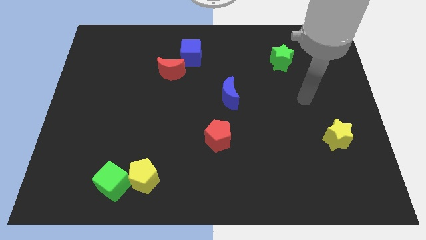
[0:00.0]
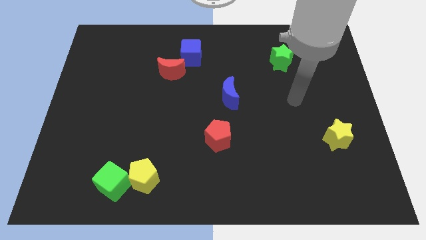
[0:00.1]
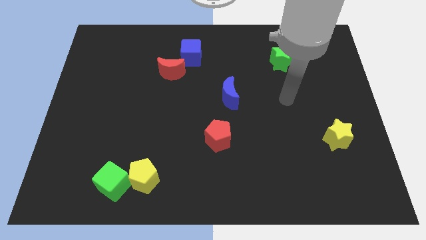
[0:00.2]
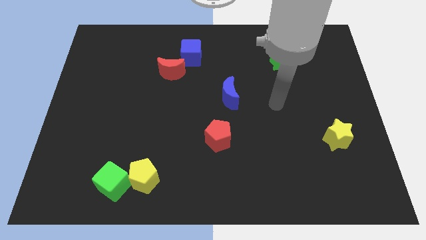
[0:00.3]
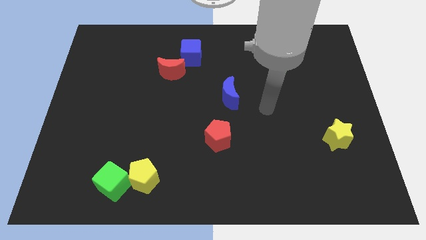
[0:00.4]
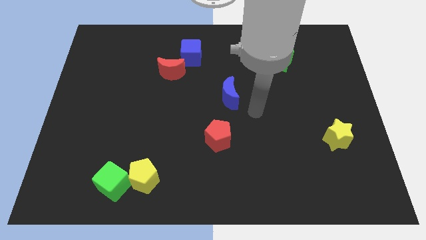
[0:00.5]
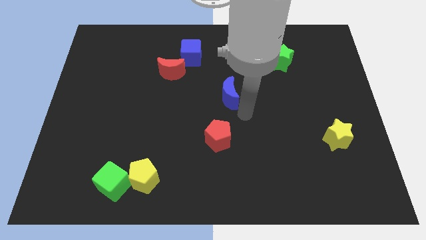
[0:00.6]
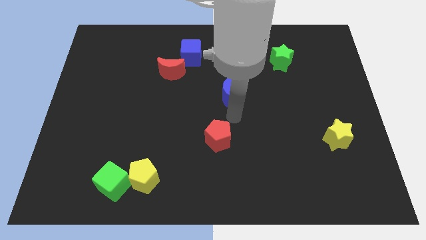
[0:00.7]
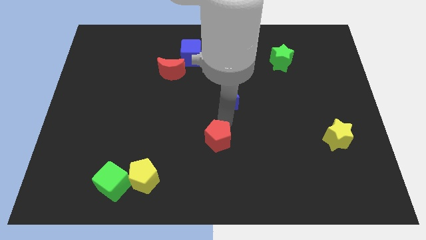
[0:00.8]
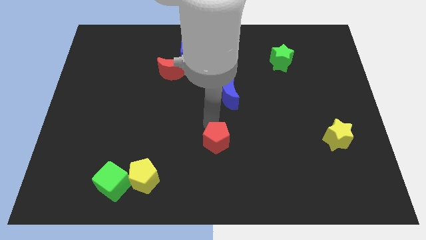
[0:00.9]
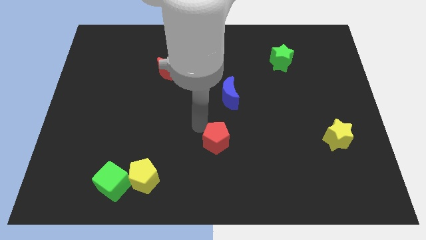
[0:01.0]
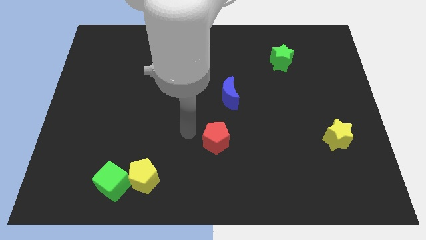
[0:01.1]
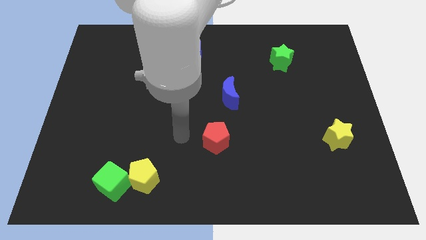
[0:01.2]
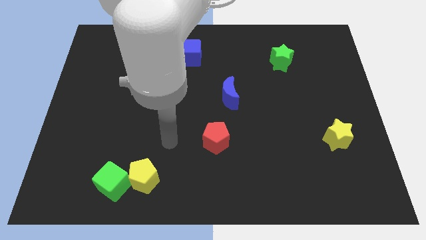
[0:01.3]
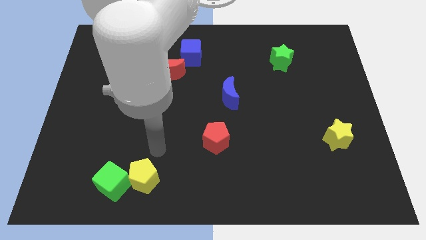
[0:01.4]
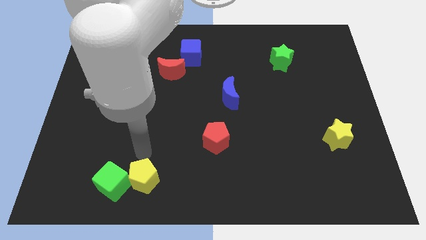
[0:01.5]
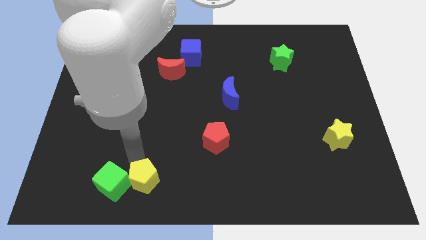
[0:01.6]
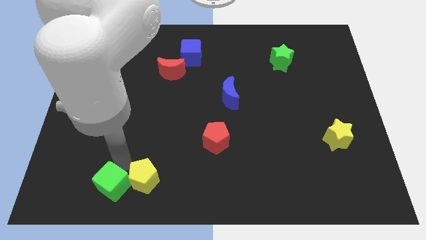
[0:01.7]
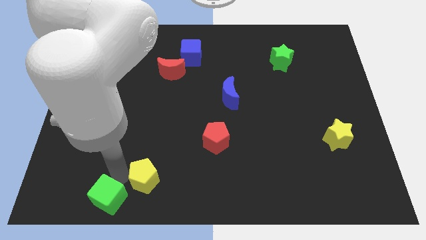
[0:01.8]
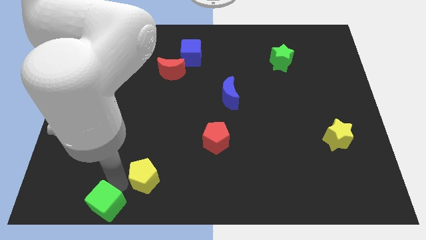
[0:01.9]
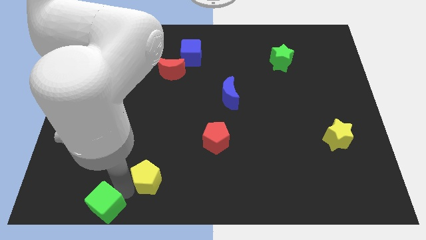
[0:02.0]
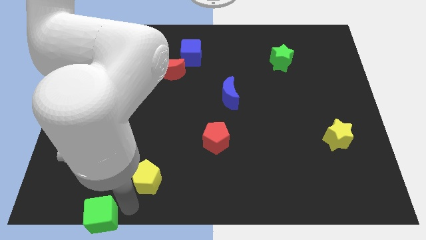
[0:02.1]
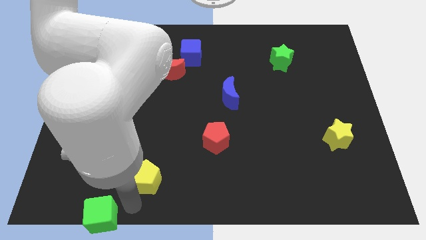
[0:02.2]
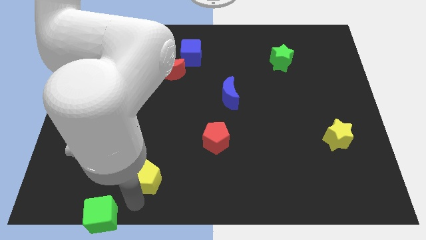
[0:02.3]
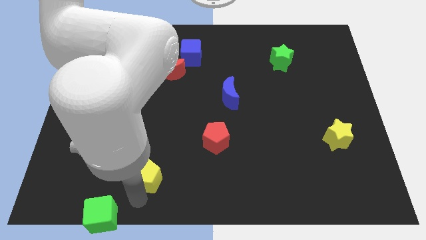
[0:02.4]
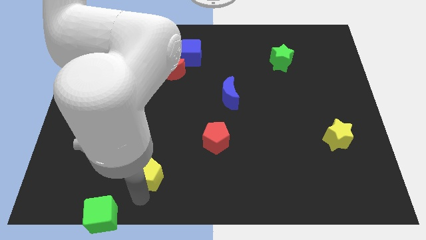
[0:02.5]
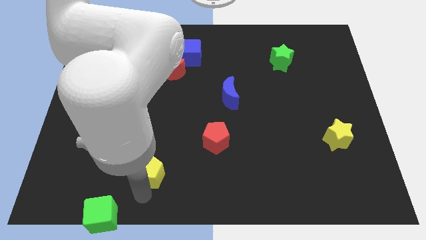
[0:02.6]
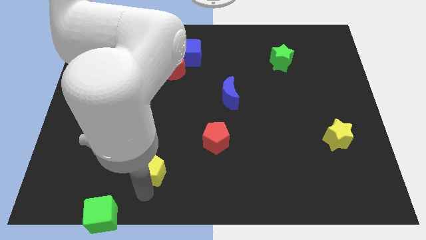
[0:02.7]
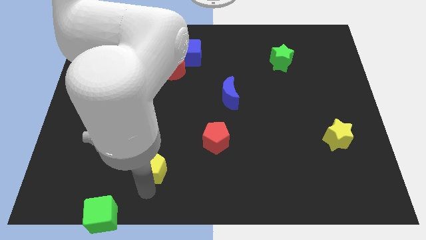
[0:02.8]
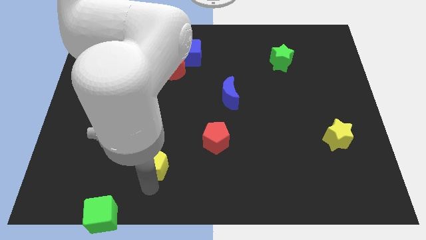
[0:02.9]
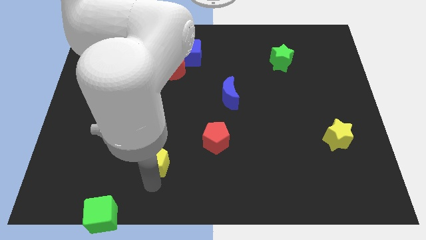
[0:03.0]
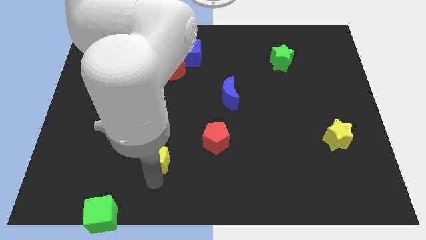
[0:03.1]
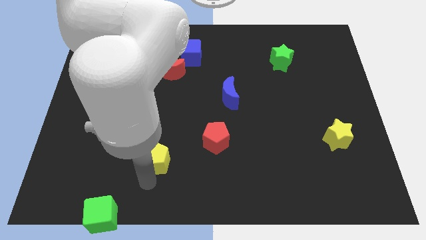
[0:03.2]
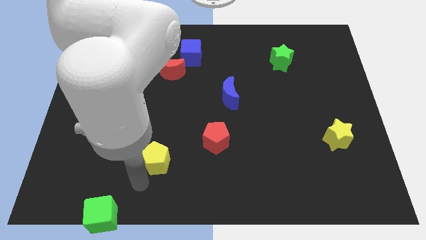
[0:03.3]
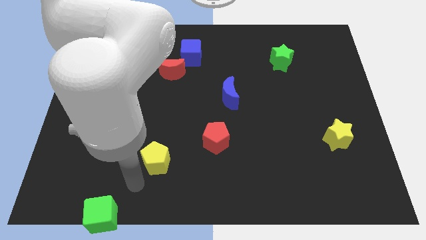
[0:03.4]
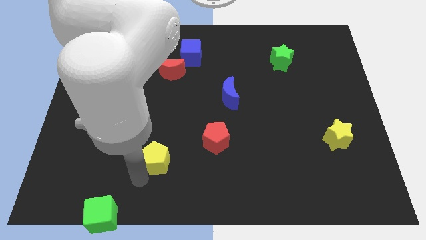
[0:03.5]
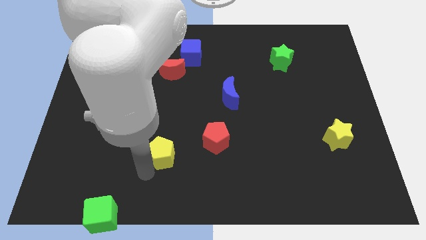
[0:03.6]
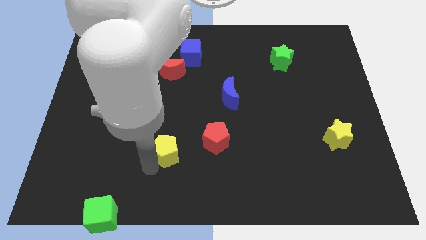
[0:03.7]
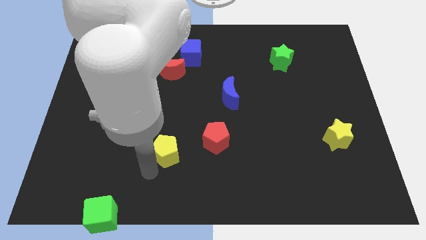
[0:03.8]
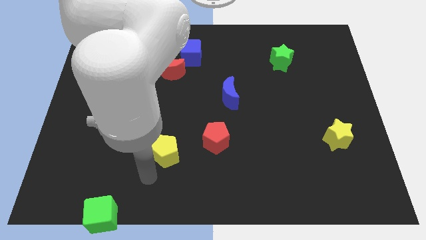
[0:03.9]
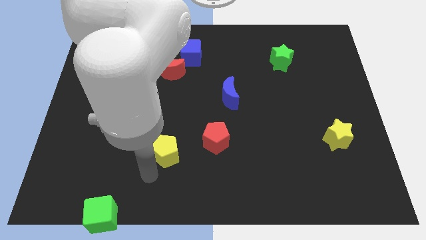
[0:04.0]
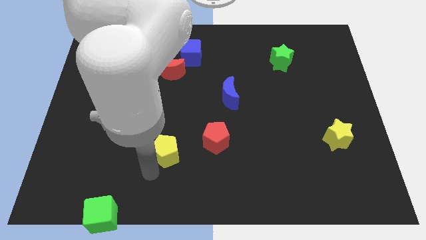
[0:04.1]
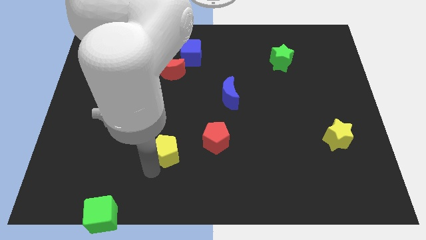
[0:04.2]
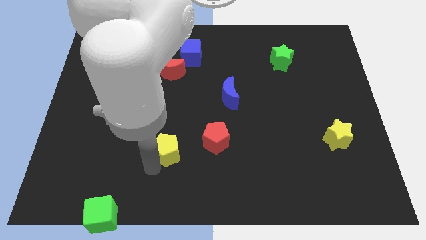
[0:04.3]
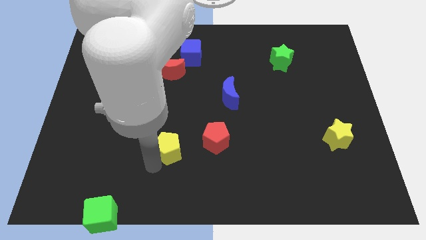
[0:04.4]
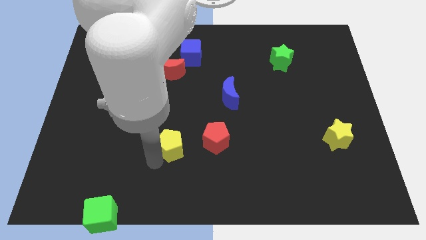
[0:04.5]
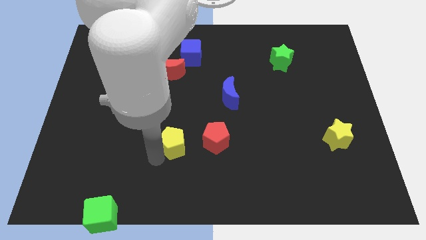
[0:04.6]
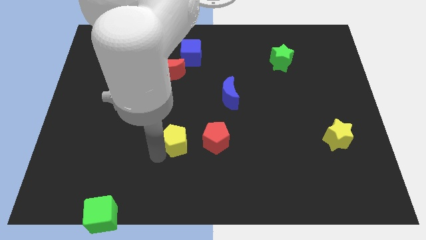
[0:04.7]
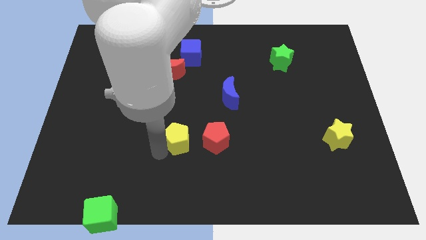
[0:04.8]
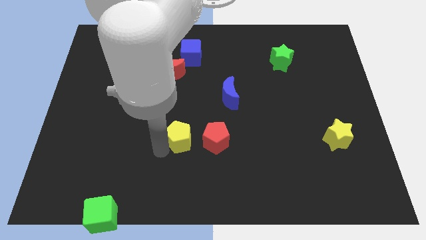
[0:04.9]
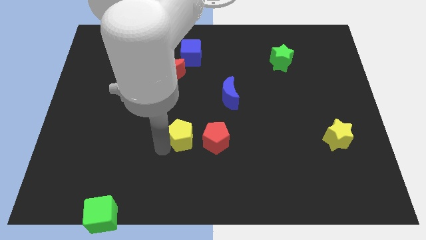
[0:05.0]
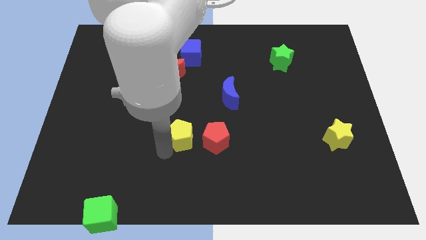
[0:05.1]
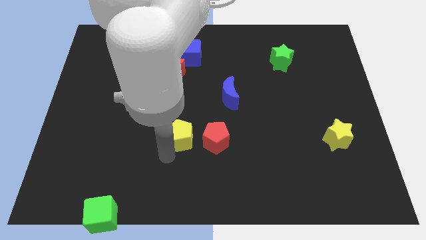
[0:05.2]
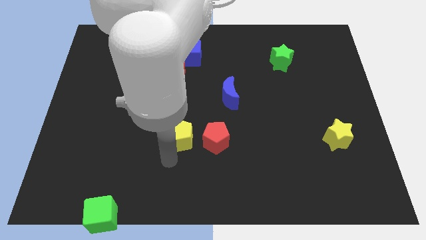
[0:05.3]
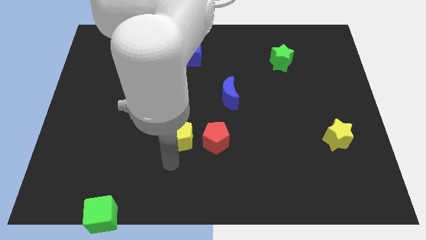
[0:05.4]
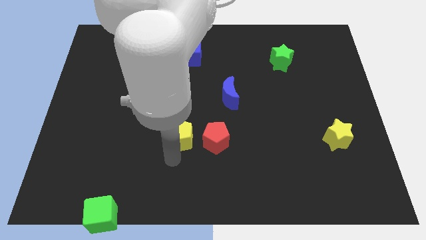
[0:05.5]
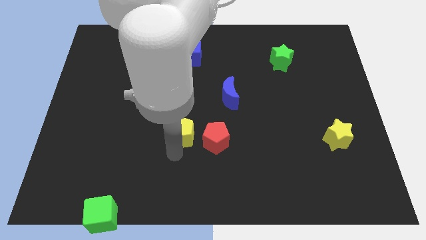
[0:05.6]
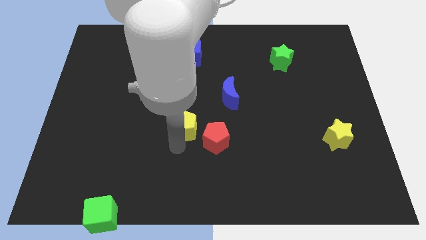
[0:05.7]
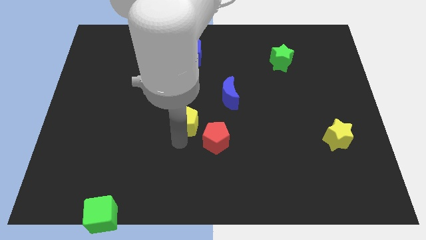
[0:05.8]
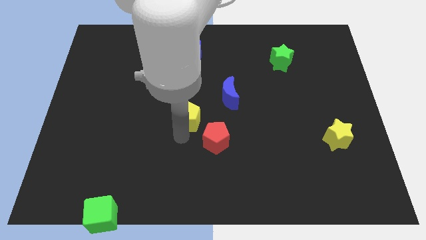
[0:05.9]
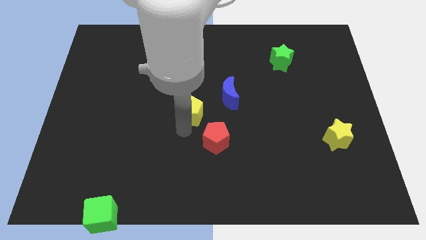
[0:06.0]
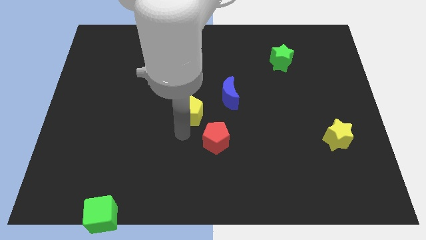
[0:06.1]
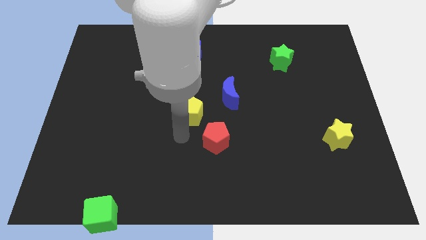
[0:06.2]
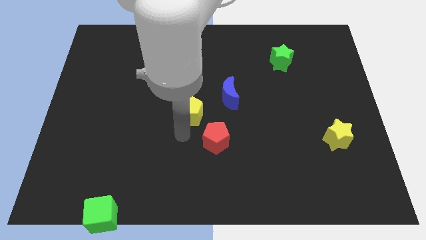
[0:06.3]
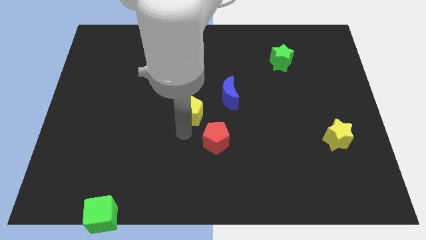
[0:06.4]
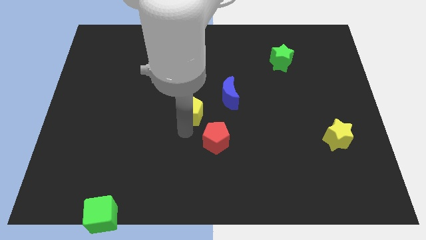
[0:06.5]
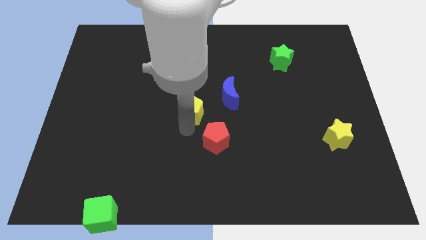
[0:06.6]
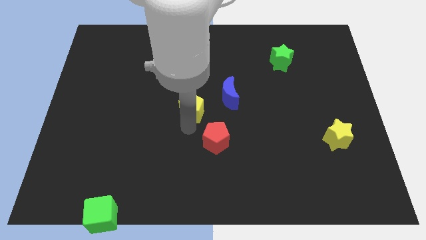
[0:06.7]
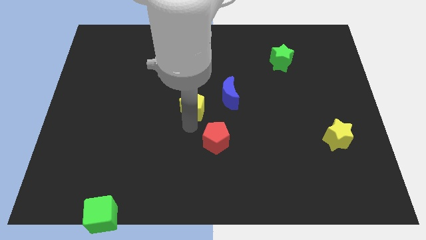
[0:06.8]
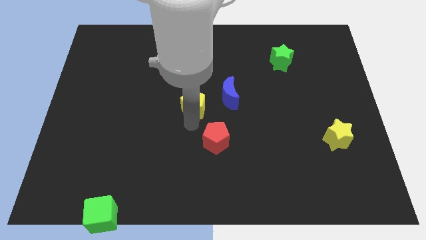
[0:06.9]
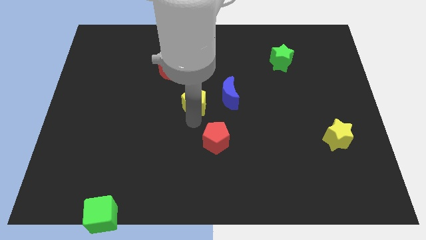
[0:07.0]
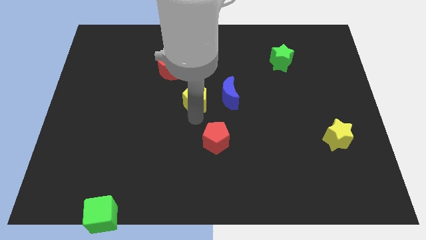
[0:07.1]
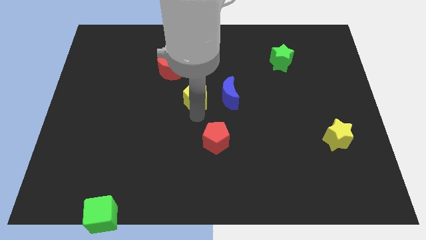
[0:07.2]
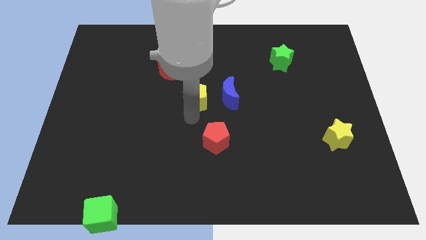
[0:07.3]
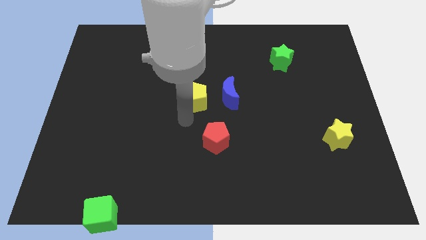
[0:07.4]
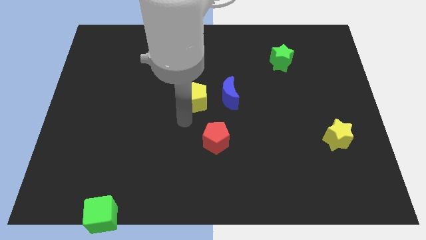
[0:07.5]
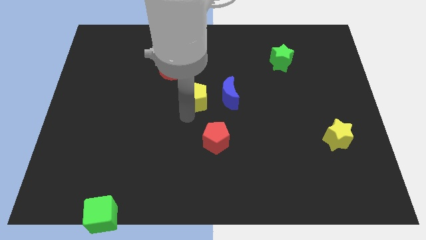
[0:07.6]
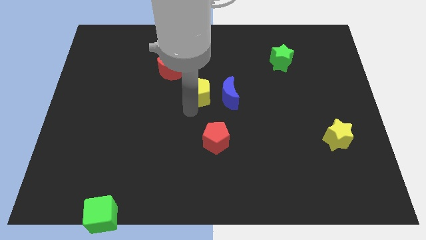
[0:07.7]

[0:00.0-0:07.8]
push the yellow pentagon to the top left of the blue moon
